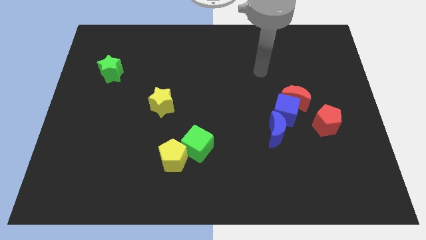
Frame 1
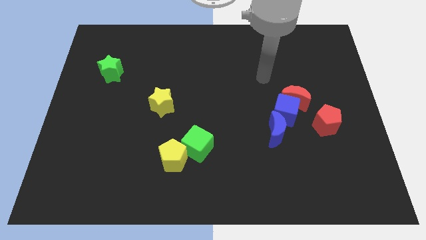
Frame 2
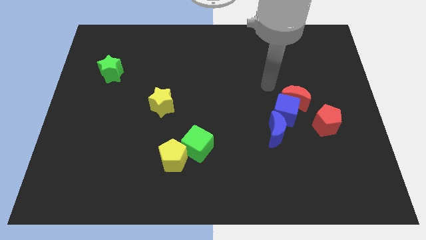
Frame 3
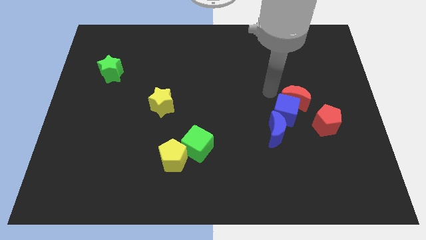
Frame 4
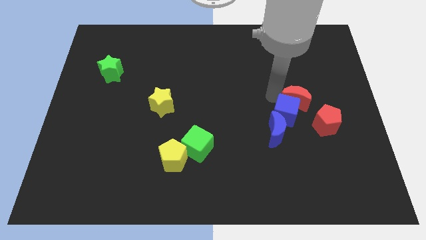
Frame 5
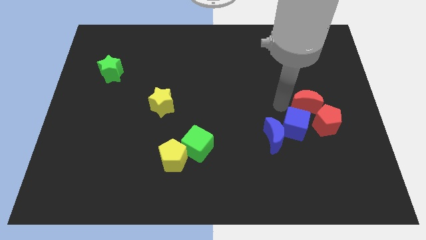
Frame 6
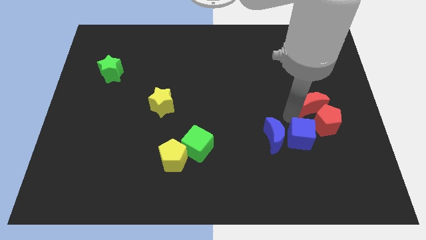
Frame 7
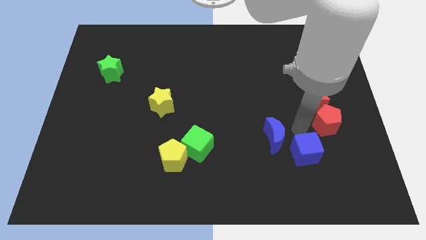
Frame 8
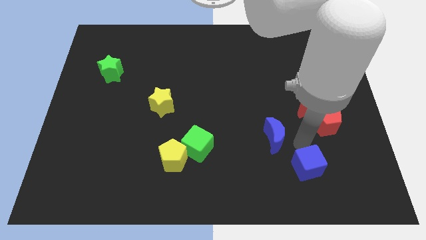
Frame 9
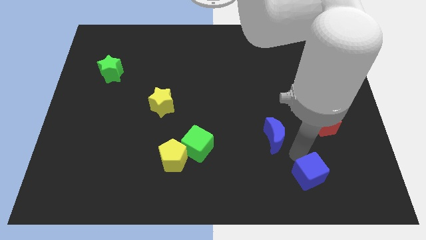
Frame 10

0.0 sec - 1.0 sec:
separate the blue moon from the blue cube

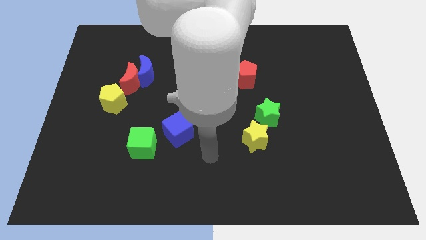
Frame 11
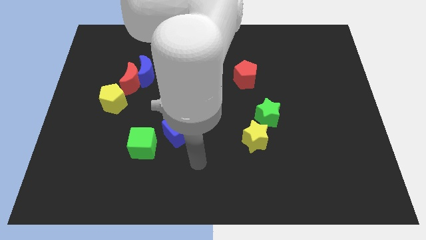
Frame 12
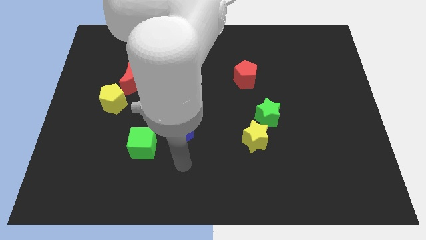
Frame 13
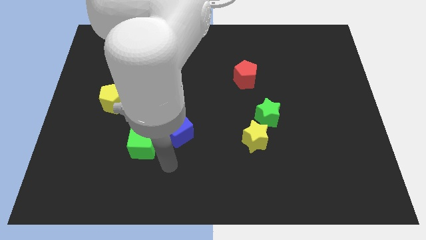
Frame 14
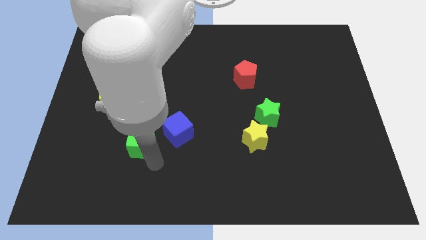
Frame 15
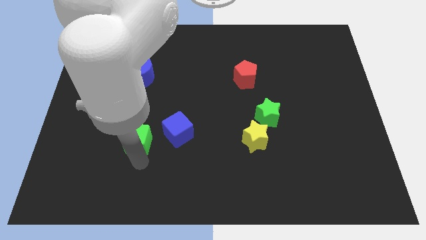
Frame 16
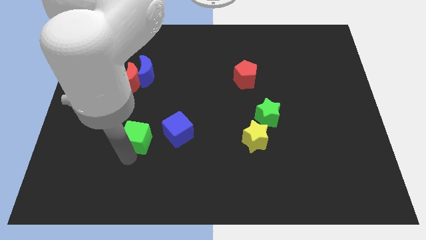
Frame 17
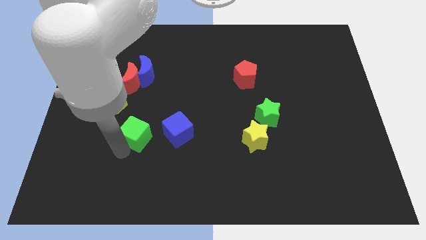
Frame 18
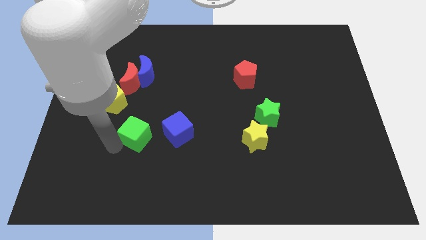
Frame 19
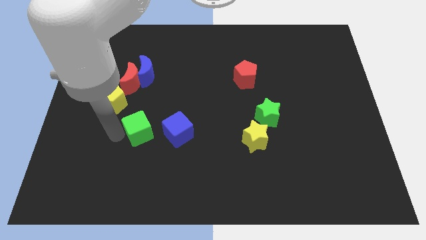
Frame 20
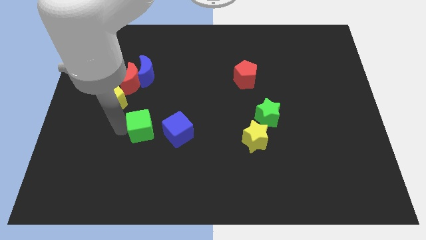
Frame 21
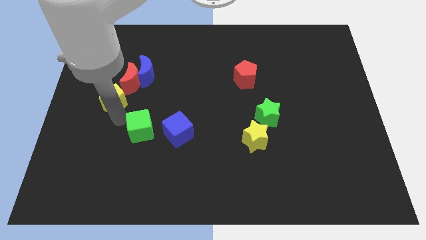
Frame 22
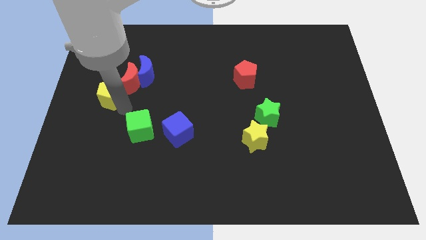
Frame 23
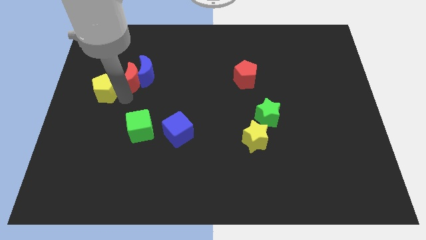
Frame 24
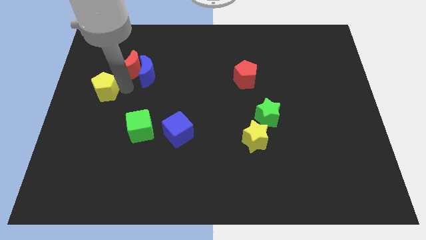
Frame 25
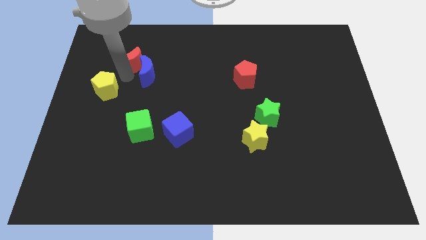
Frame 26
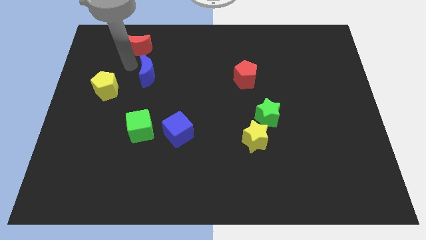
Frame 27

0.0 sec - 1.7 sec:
separate the blue moon from the red moon

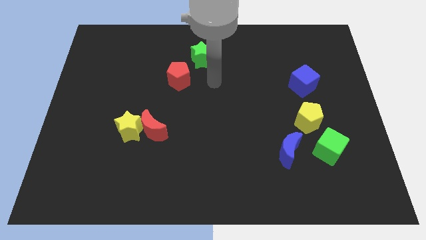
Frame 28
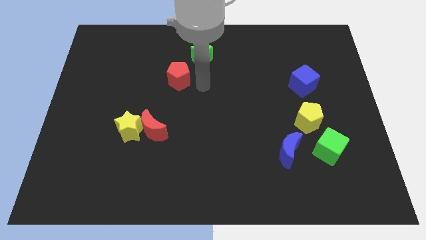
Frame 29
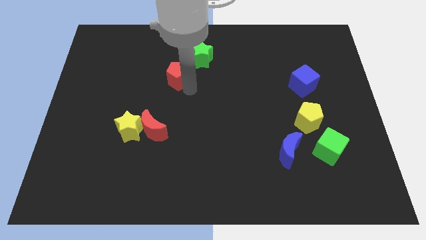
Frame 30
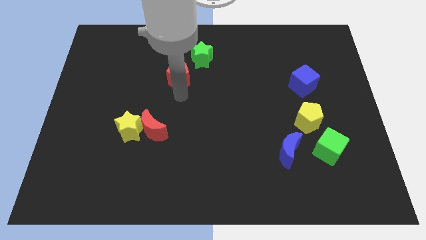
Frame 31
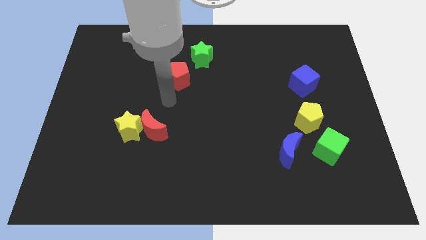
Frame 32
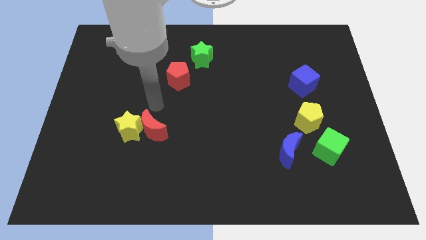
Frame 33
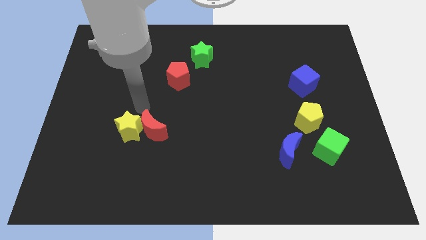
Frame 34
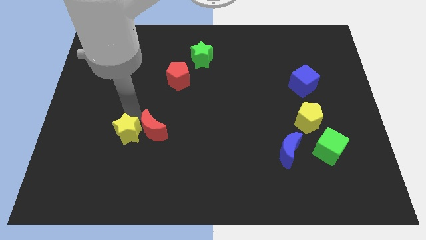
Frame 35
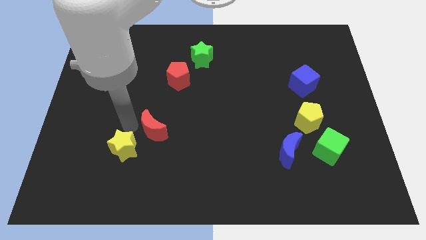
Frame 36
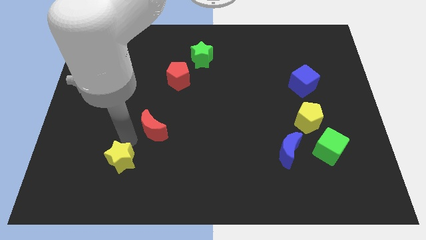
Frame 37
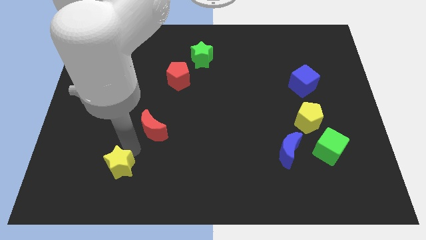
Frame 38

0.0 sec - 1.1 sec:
move the red moon away from the yellow star

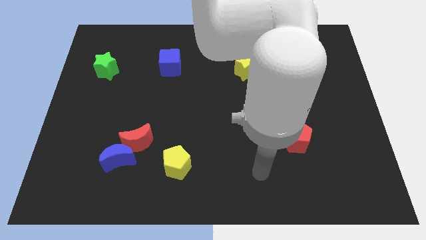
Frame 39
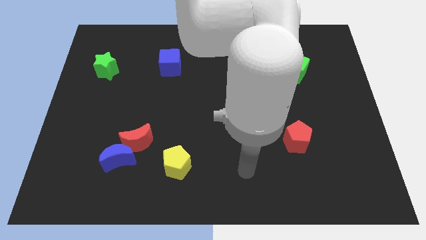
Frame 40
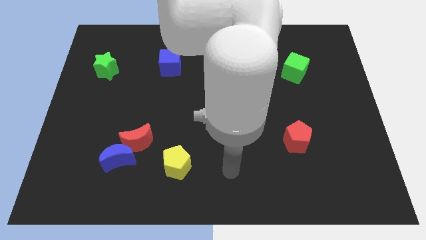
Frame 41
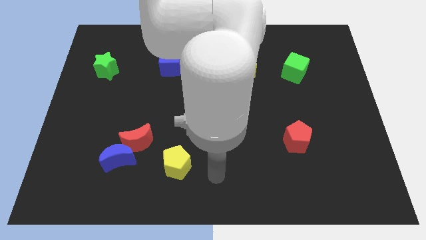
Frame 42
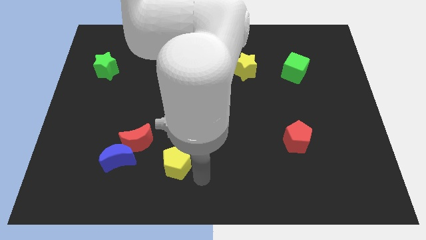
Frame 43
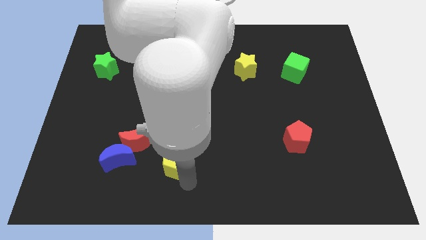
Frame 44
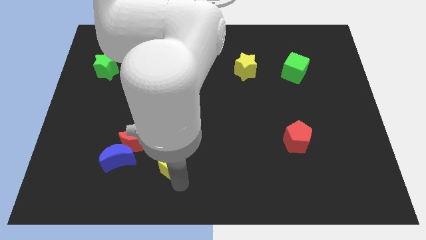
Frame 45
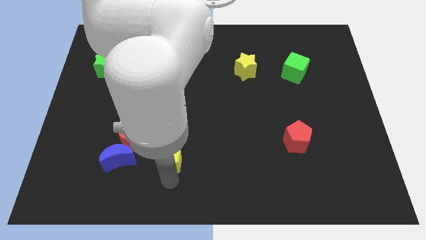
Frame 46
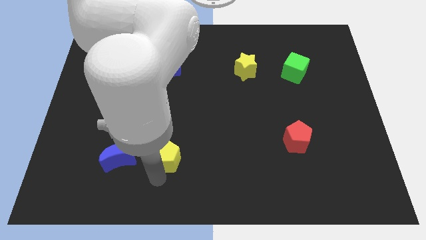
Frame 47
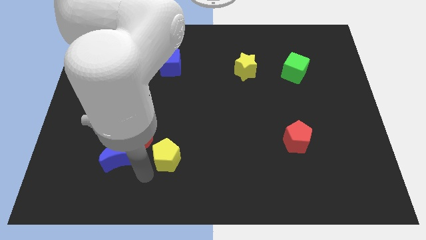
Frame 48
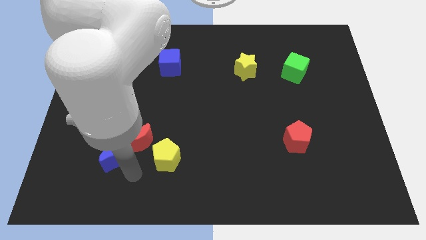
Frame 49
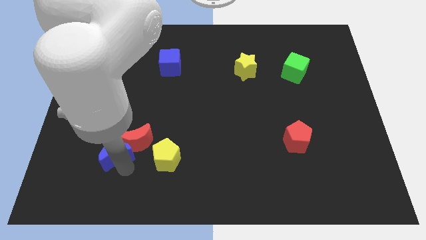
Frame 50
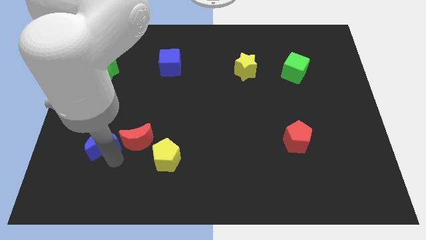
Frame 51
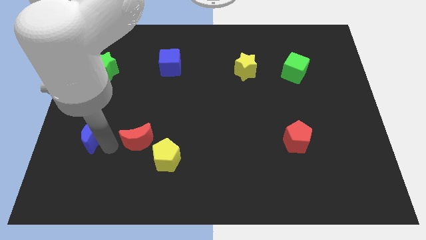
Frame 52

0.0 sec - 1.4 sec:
move the red moon away from the blue moon

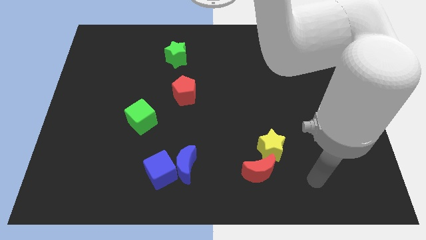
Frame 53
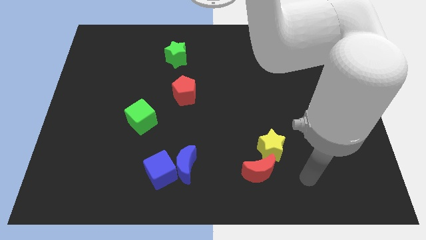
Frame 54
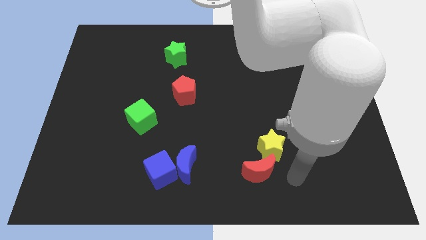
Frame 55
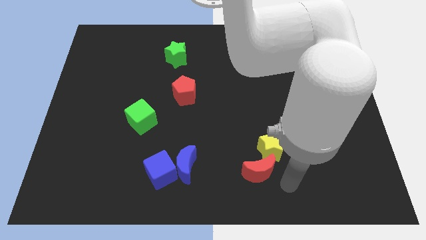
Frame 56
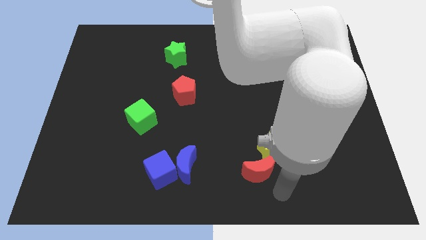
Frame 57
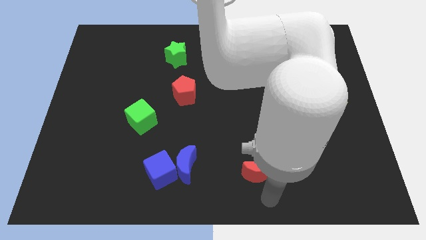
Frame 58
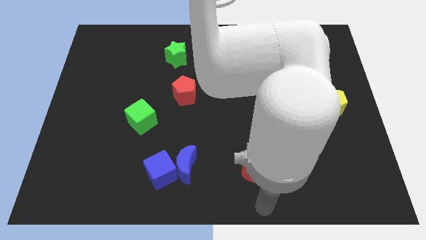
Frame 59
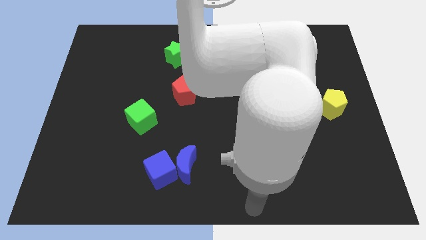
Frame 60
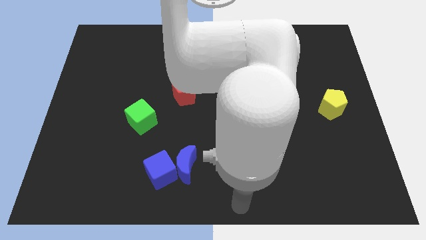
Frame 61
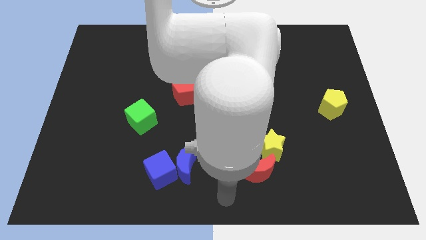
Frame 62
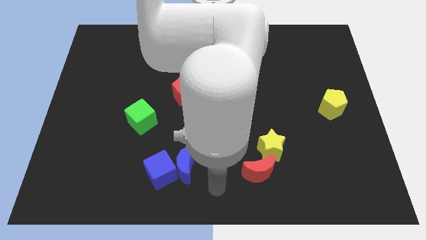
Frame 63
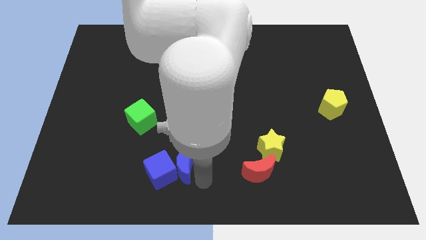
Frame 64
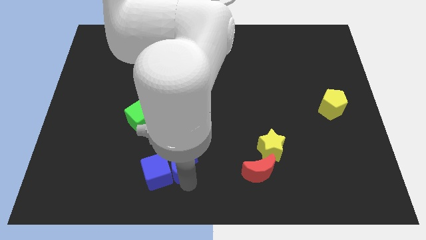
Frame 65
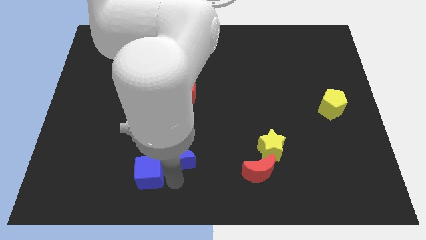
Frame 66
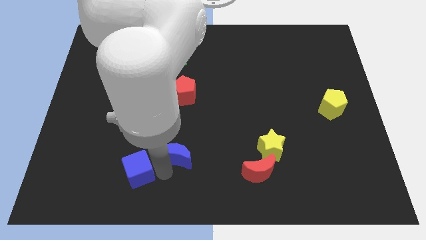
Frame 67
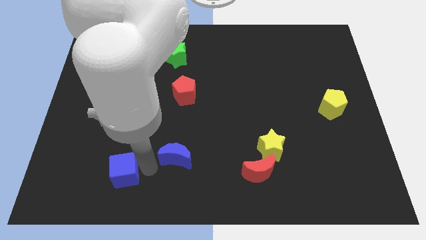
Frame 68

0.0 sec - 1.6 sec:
move the blue moon away from the blue cube

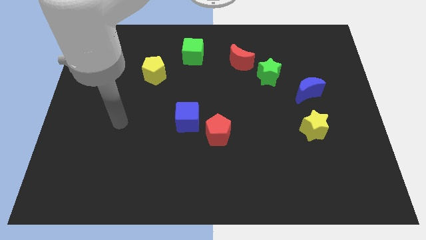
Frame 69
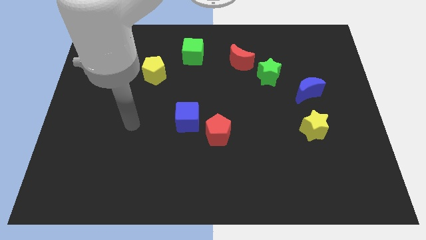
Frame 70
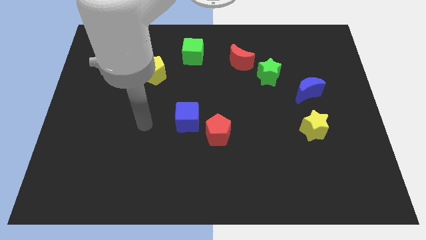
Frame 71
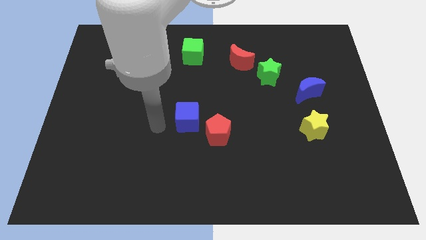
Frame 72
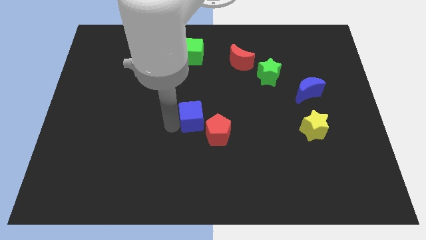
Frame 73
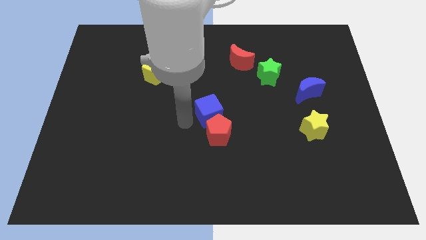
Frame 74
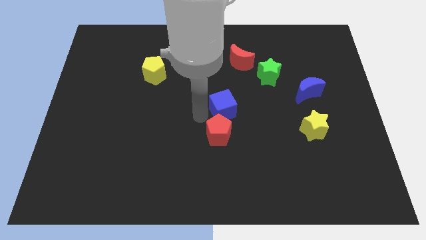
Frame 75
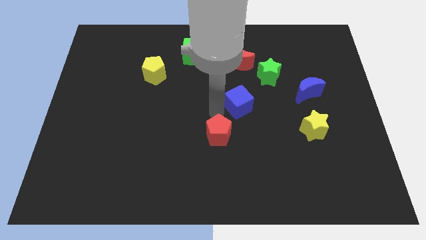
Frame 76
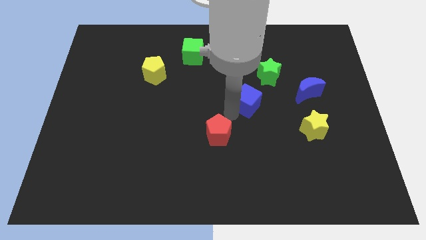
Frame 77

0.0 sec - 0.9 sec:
pull the red pentagon apart from the blue cube

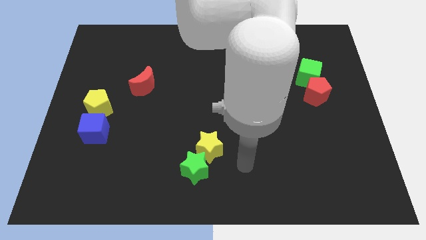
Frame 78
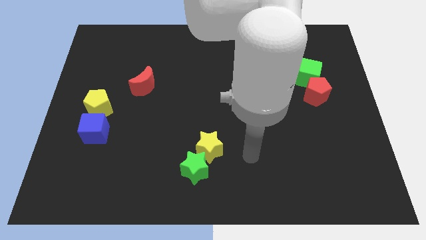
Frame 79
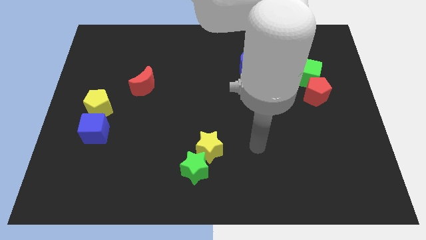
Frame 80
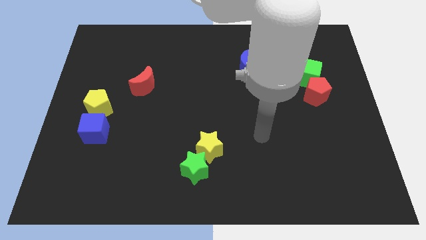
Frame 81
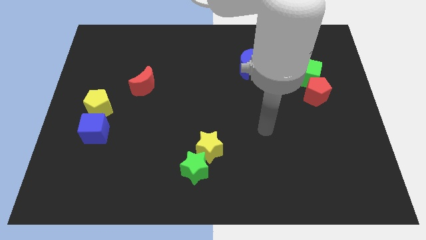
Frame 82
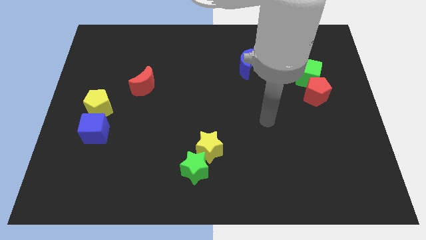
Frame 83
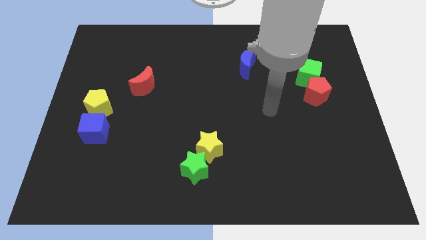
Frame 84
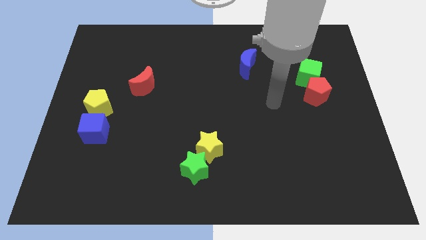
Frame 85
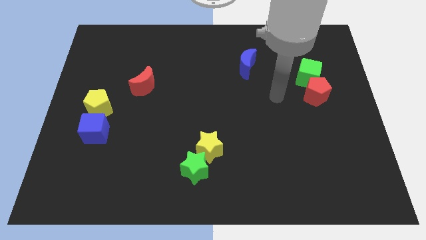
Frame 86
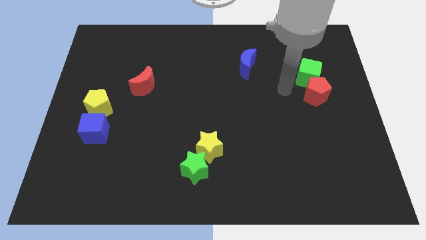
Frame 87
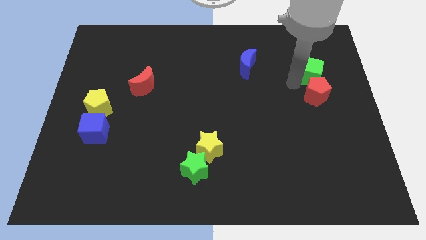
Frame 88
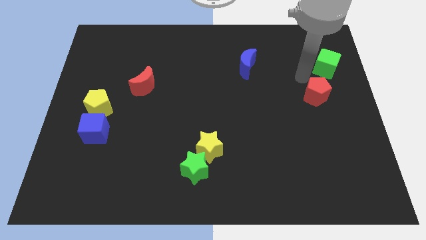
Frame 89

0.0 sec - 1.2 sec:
pull the red pentagon apart from the green cube

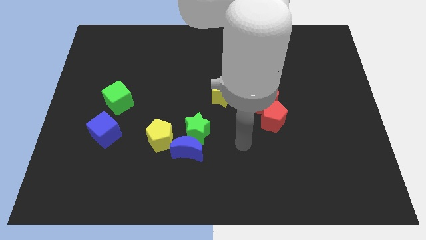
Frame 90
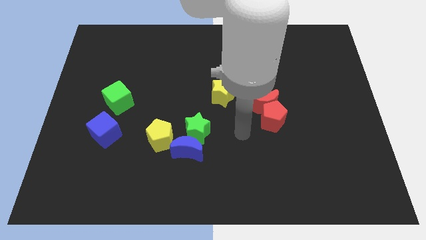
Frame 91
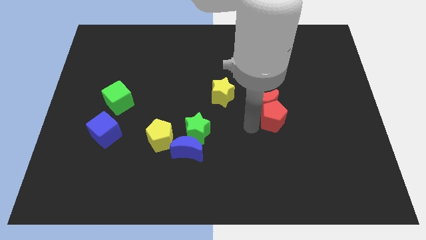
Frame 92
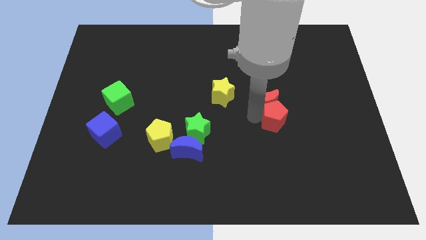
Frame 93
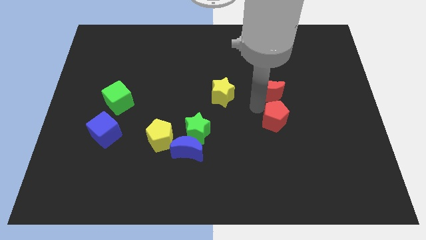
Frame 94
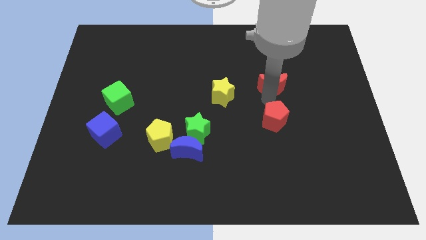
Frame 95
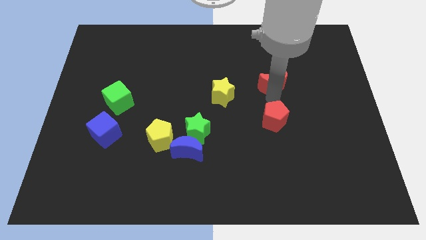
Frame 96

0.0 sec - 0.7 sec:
move the red pentagon away from the red moon
